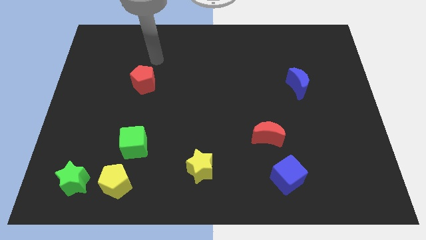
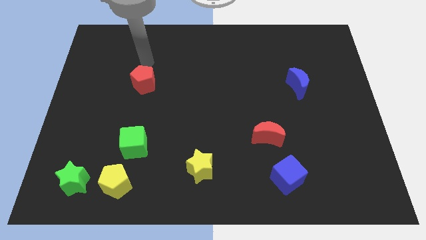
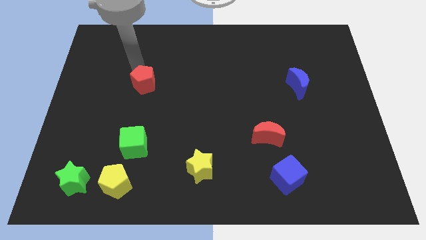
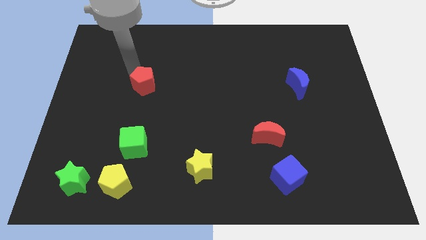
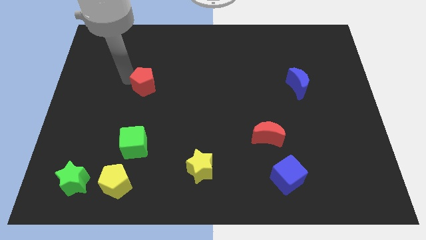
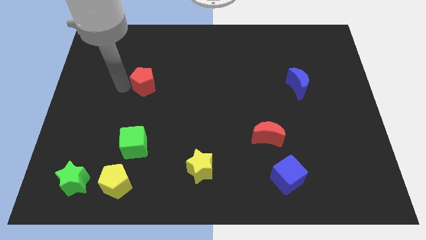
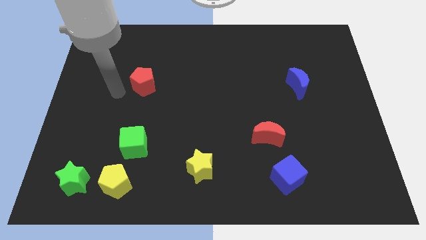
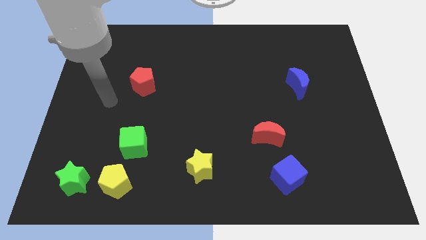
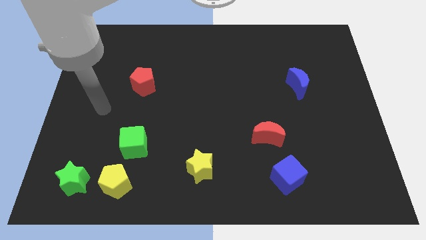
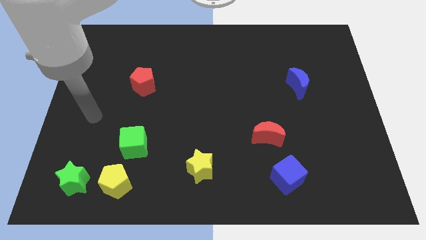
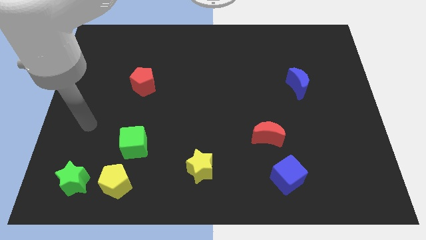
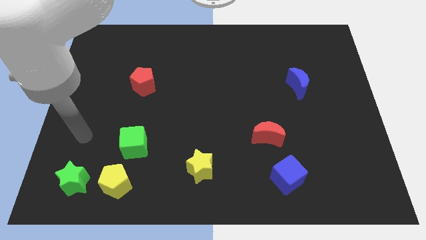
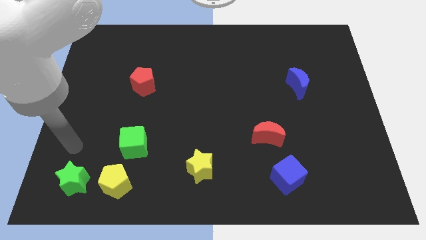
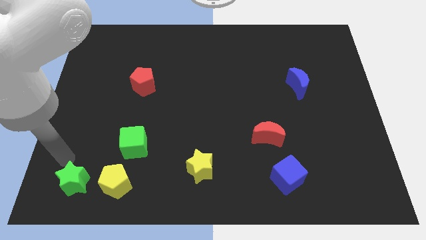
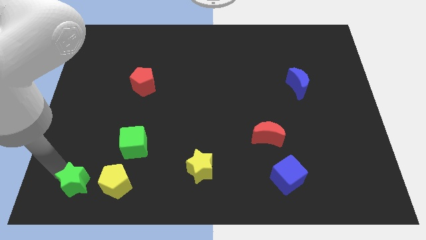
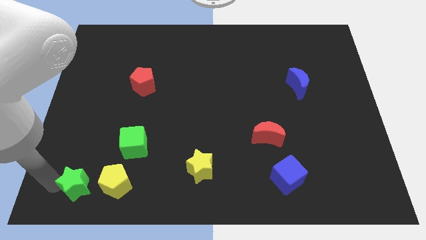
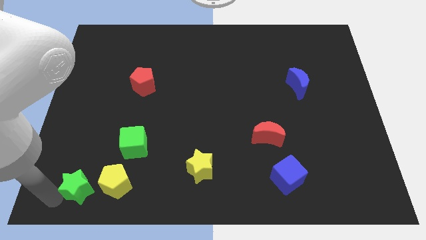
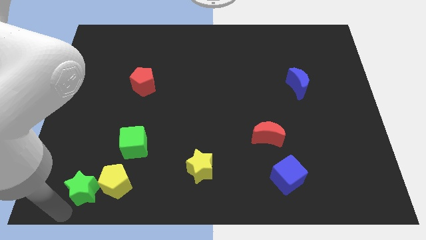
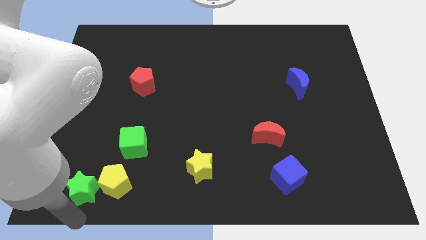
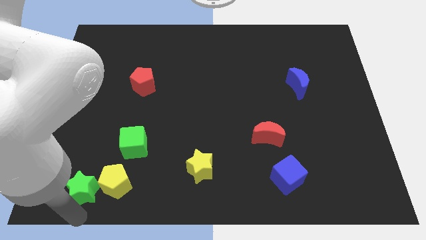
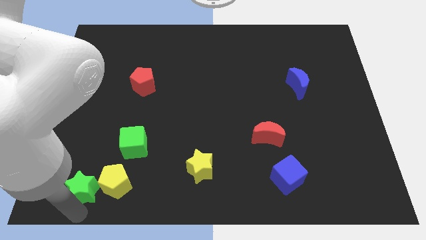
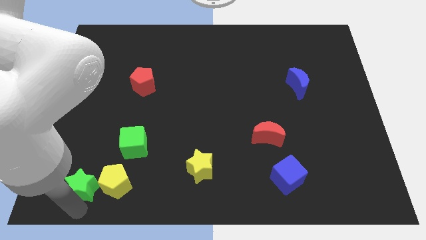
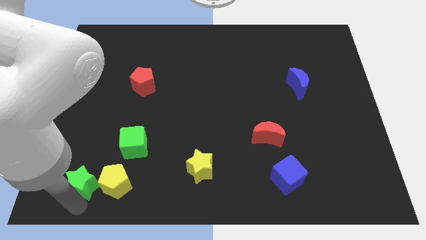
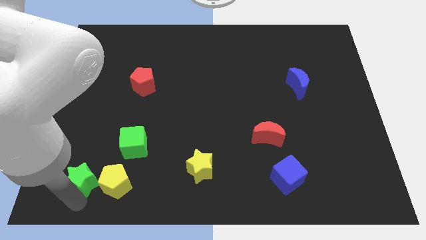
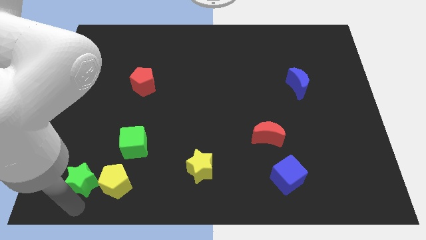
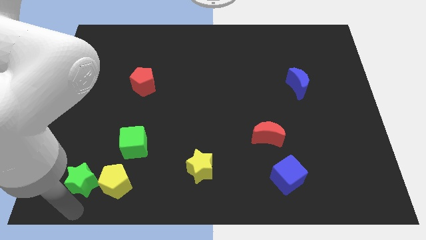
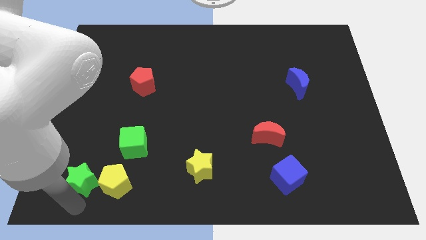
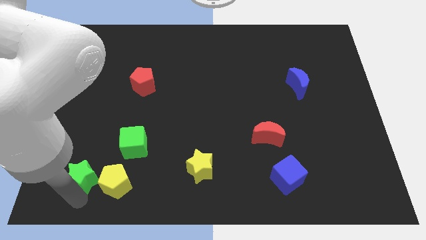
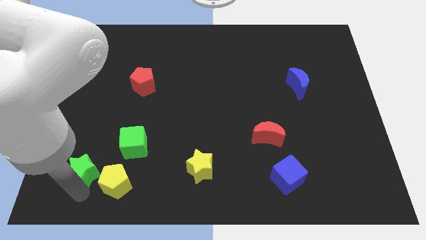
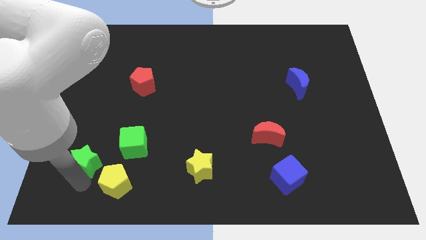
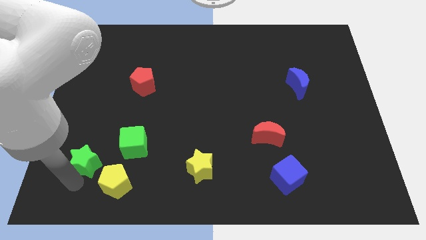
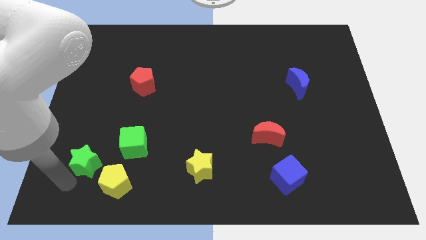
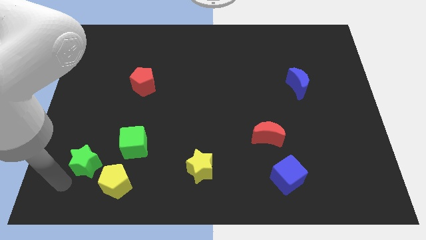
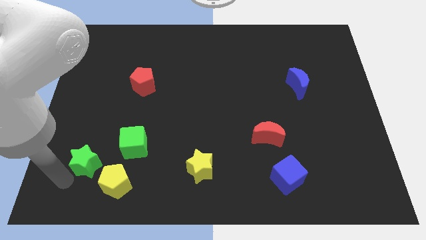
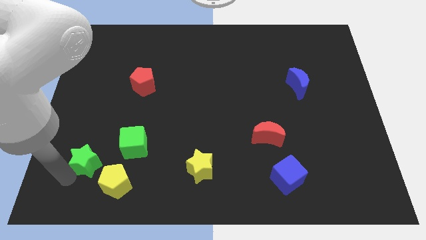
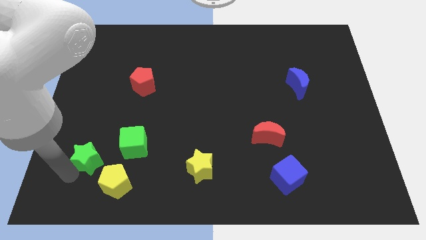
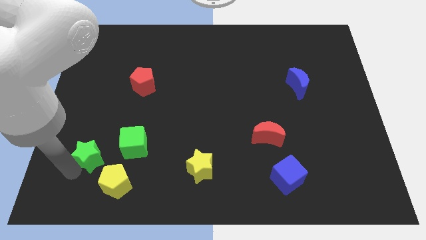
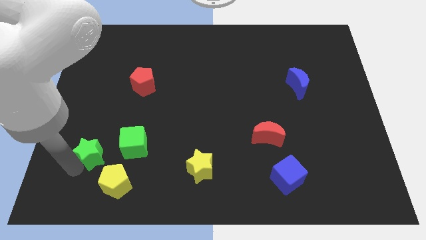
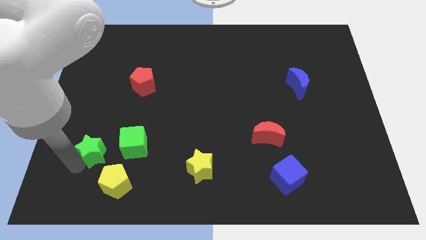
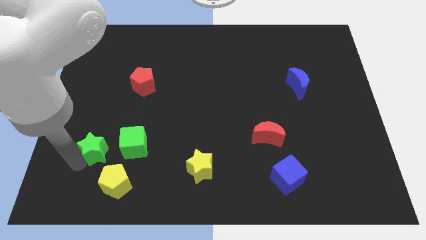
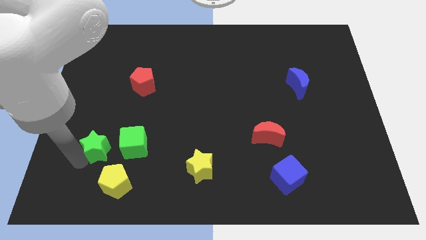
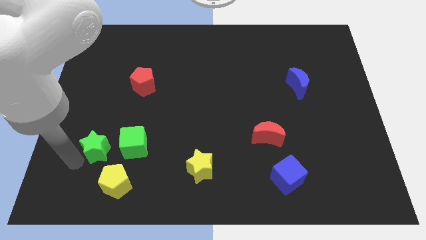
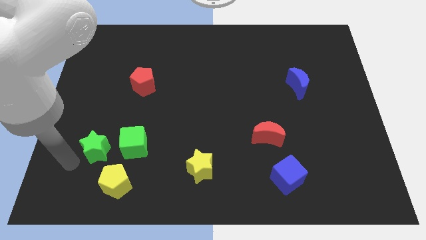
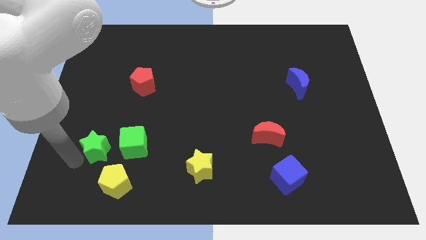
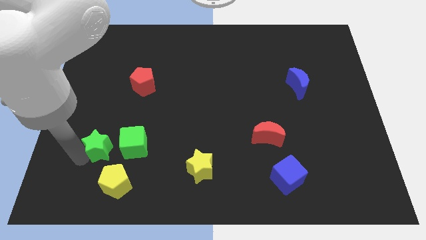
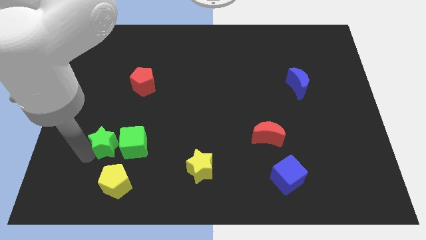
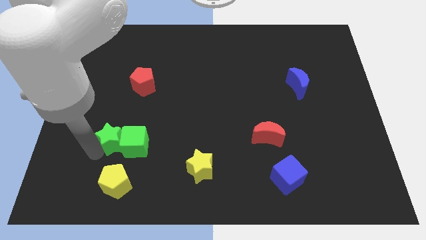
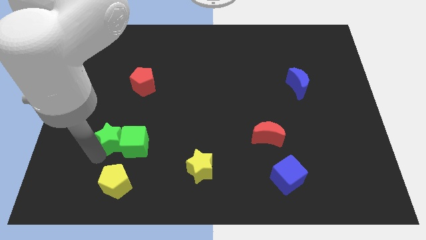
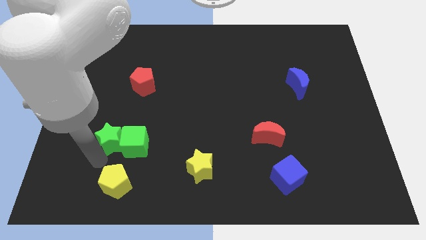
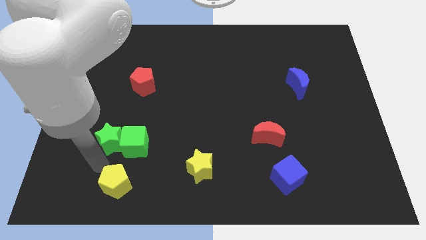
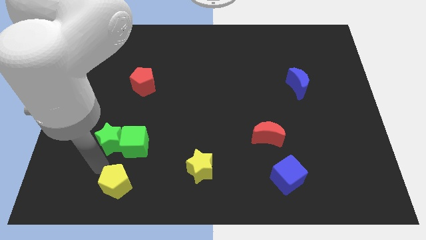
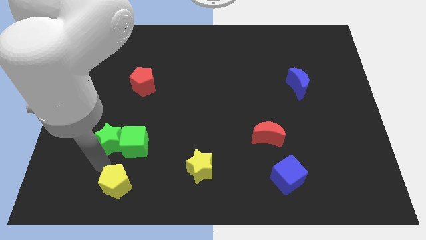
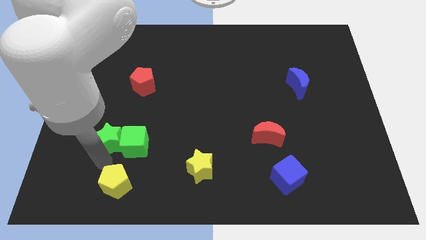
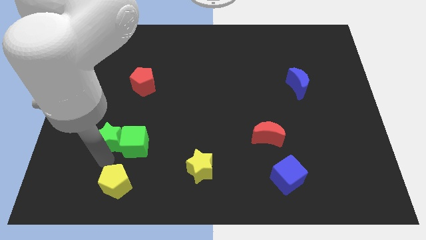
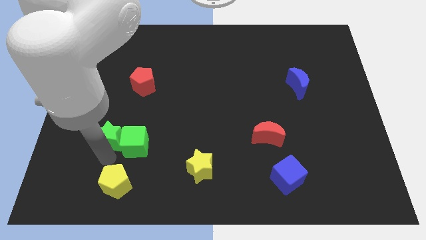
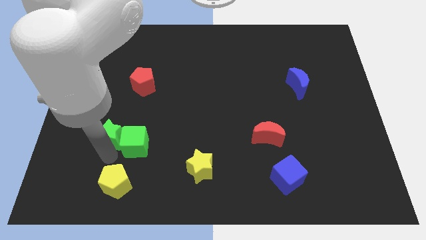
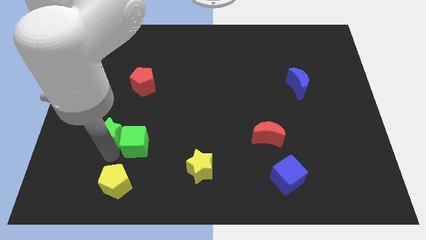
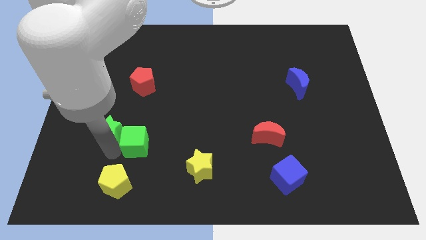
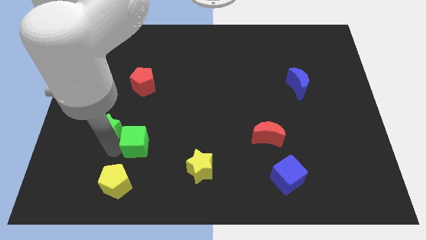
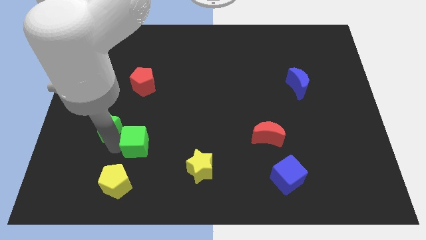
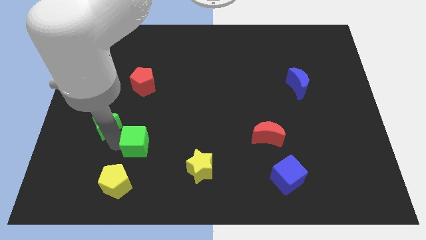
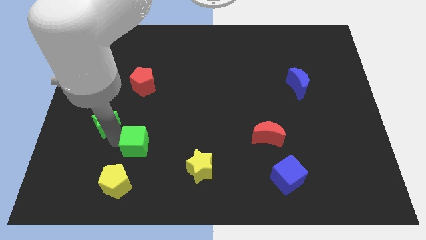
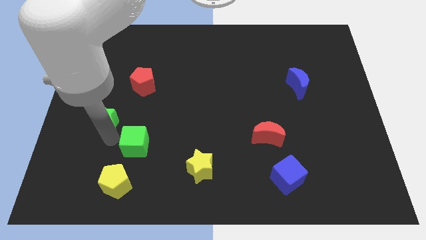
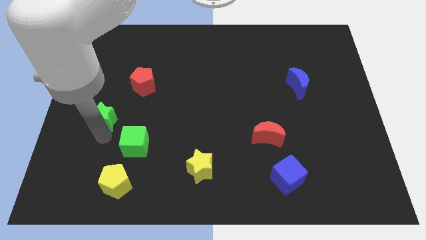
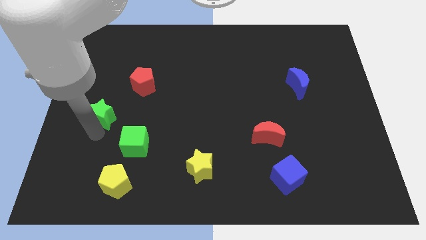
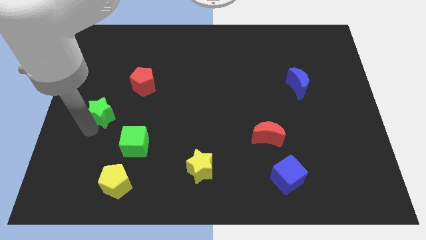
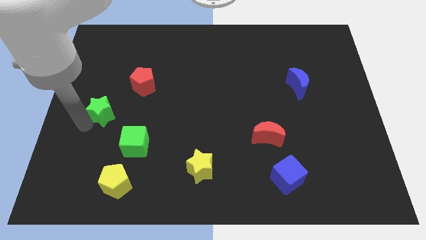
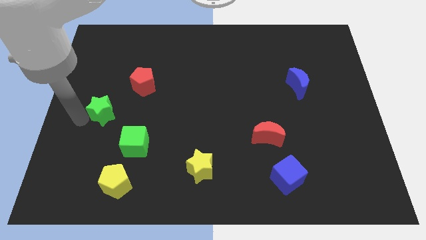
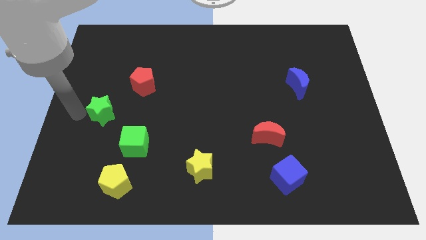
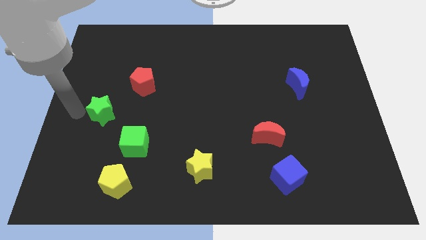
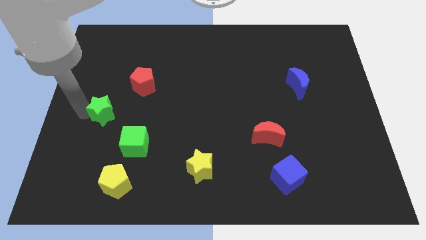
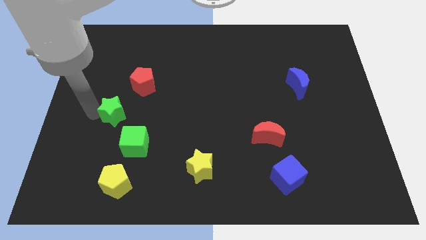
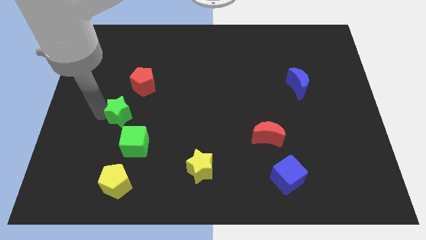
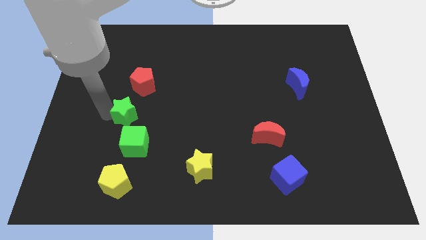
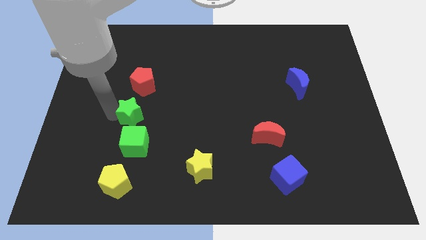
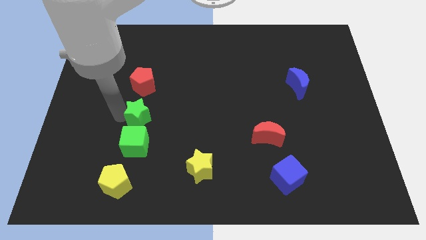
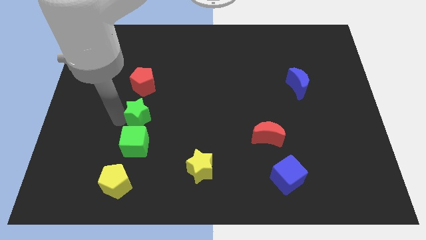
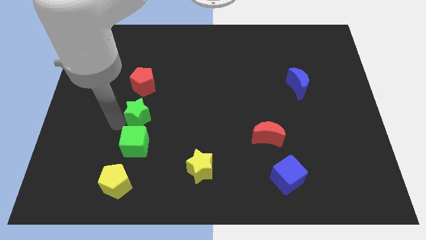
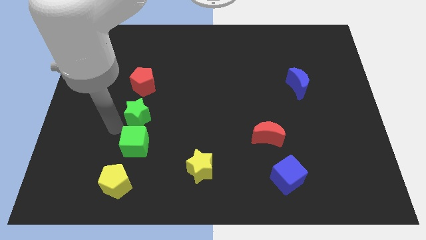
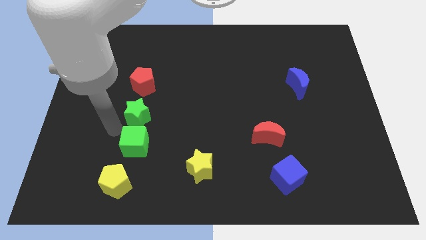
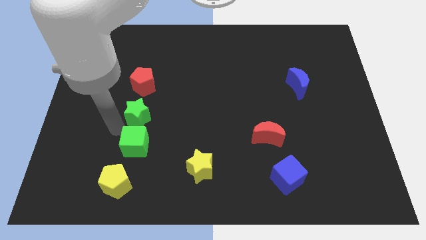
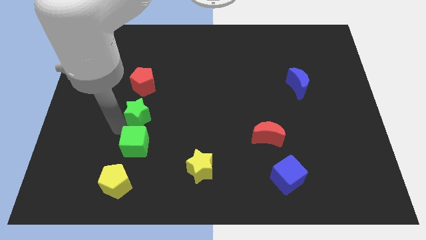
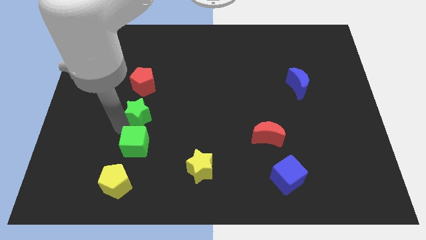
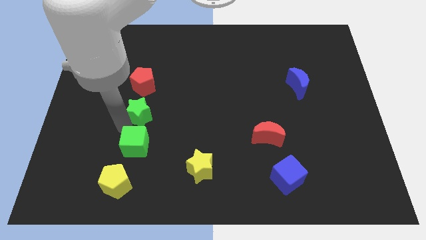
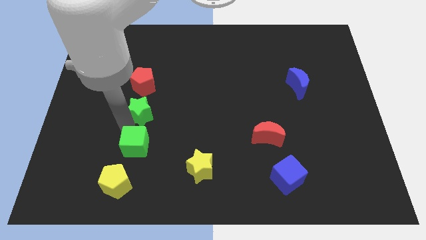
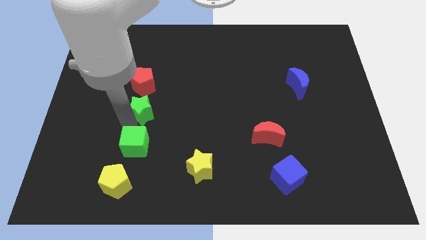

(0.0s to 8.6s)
move the green star diagonally up and right
